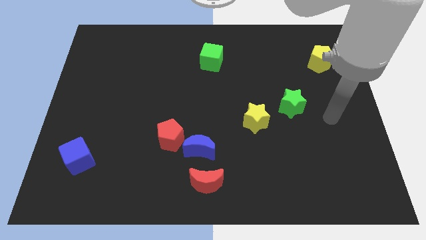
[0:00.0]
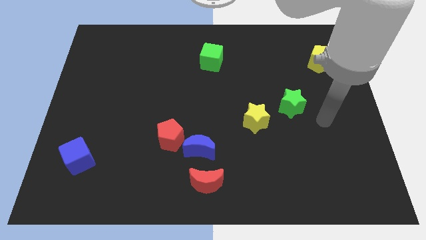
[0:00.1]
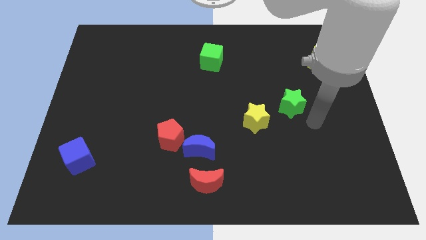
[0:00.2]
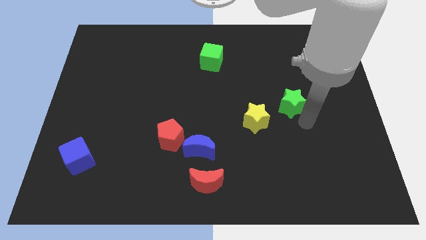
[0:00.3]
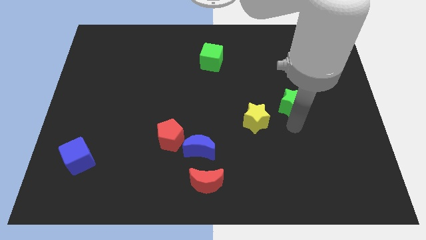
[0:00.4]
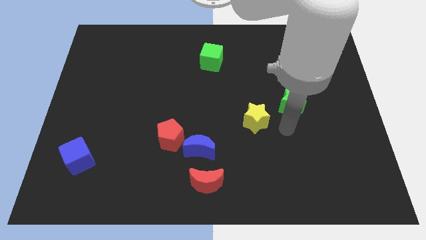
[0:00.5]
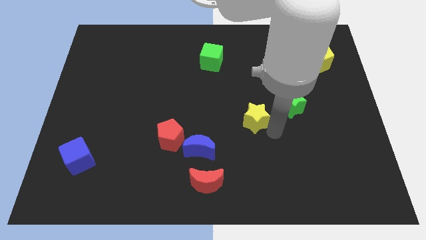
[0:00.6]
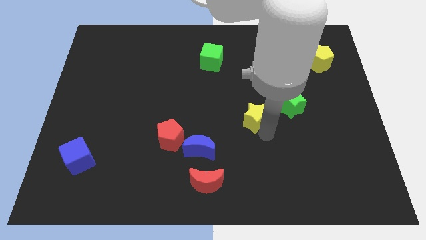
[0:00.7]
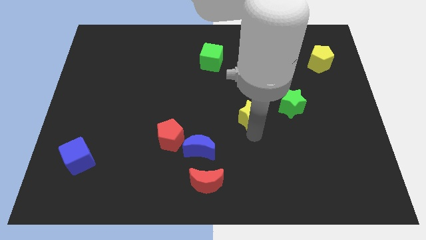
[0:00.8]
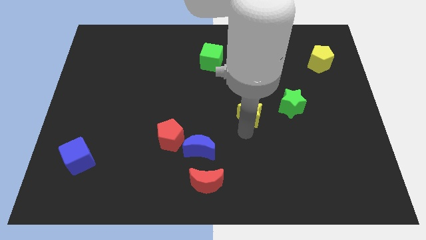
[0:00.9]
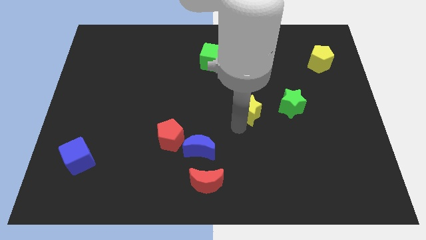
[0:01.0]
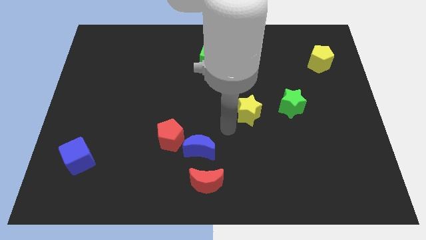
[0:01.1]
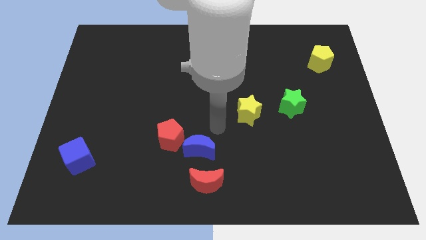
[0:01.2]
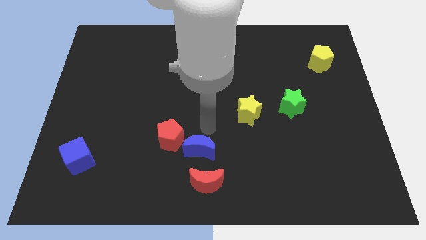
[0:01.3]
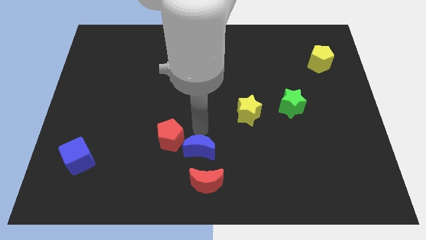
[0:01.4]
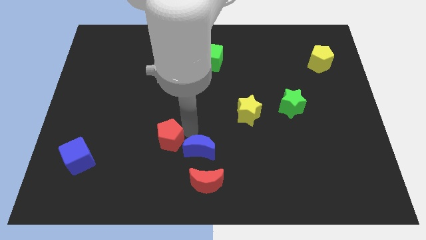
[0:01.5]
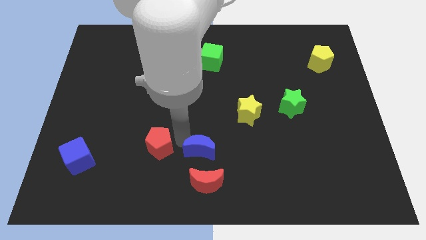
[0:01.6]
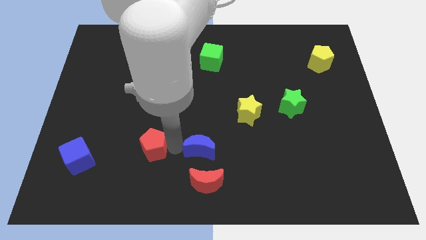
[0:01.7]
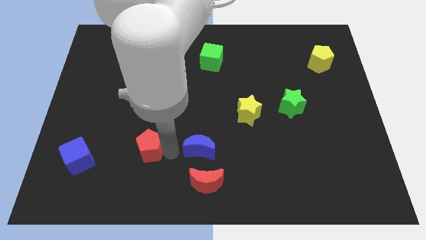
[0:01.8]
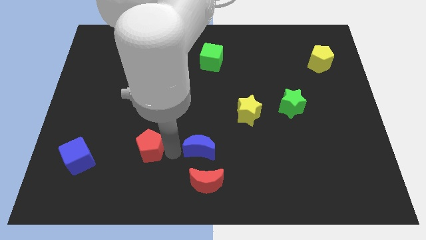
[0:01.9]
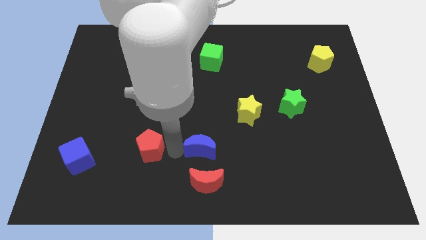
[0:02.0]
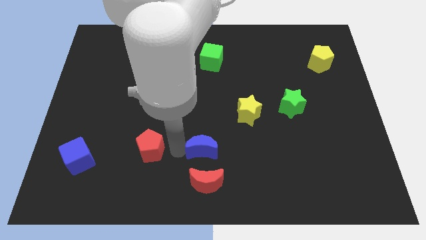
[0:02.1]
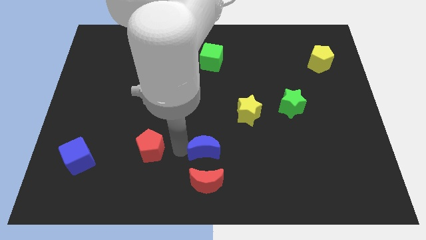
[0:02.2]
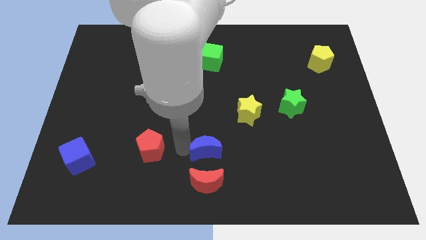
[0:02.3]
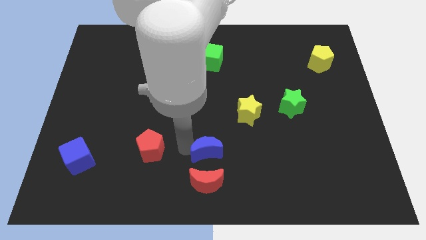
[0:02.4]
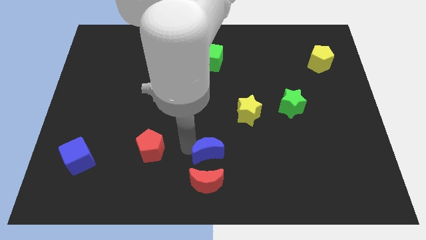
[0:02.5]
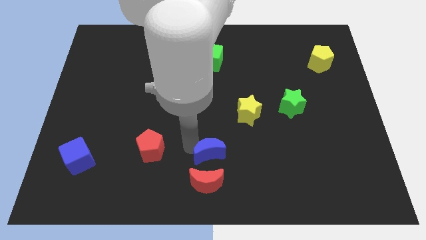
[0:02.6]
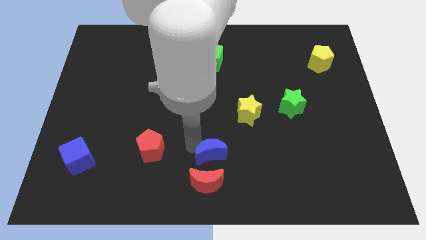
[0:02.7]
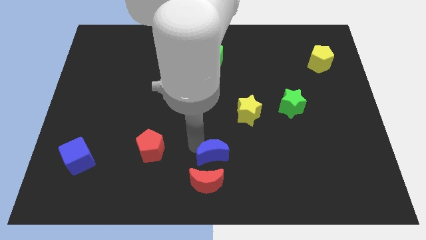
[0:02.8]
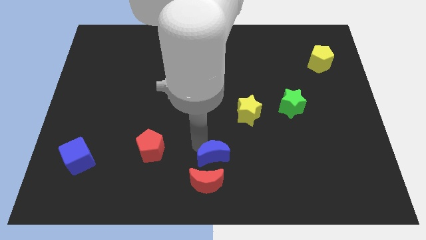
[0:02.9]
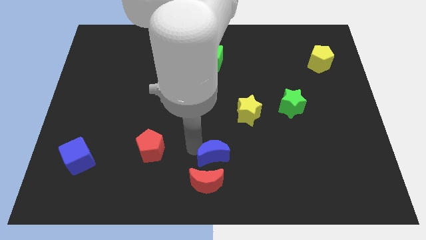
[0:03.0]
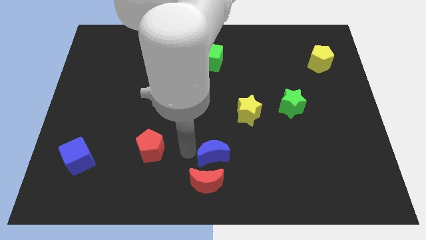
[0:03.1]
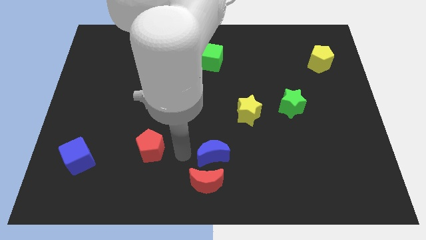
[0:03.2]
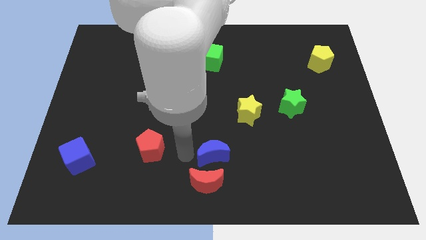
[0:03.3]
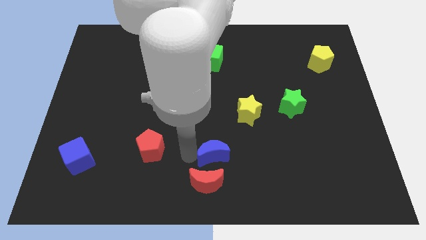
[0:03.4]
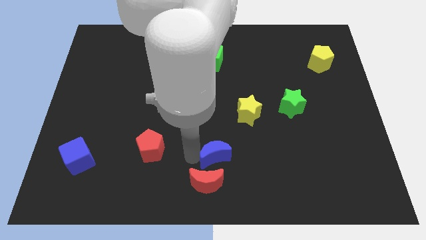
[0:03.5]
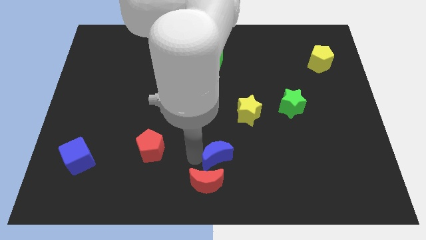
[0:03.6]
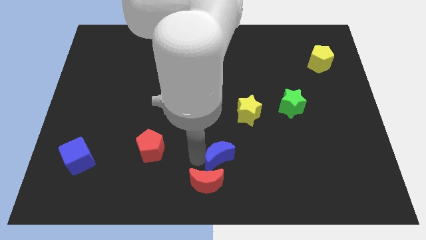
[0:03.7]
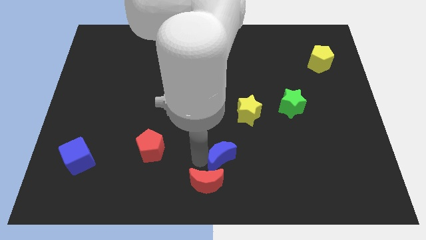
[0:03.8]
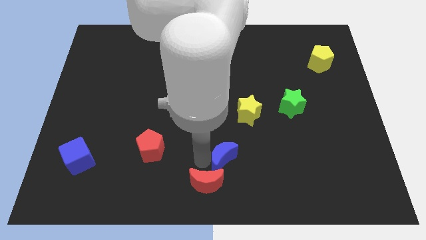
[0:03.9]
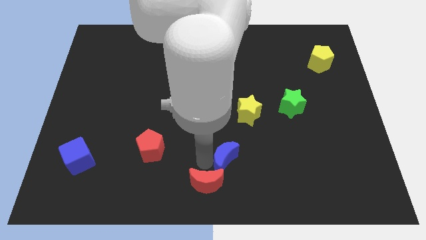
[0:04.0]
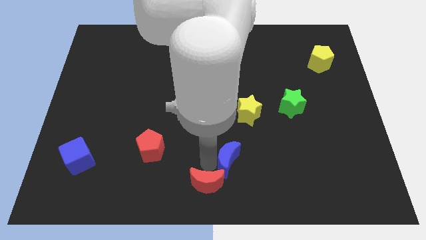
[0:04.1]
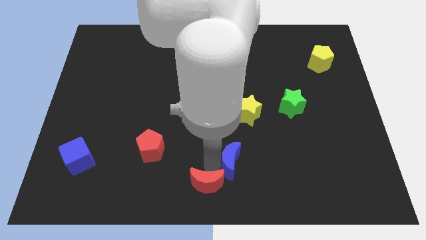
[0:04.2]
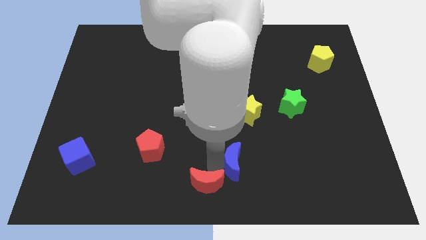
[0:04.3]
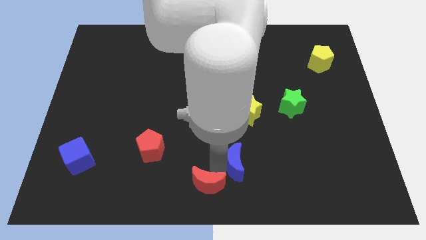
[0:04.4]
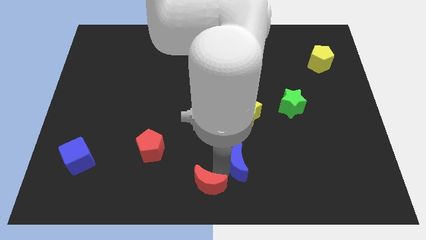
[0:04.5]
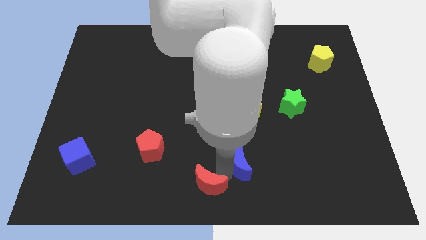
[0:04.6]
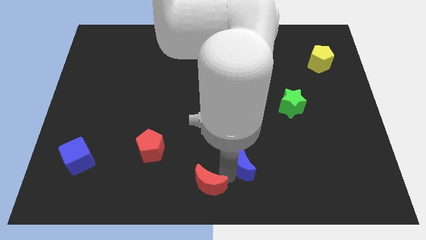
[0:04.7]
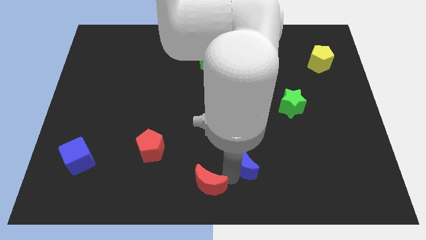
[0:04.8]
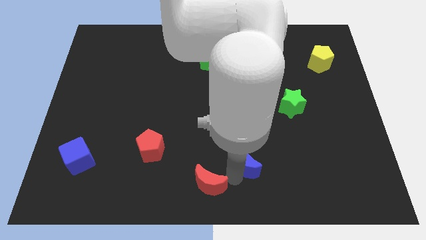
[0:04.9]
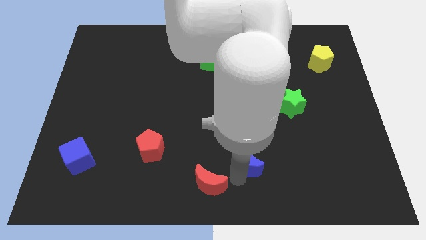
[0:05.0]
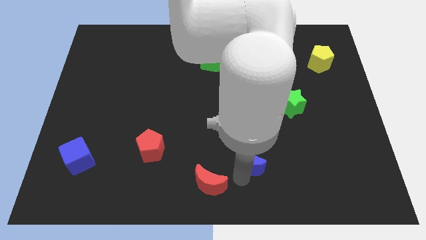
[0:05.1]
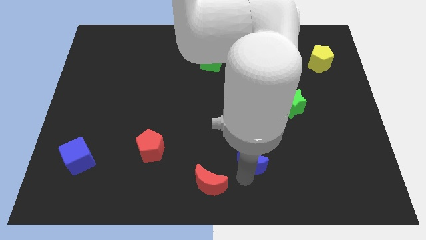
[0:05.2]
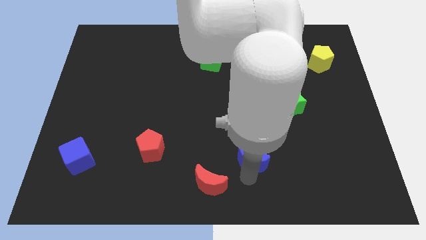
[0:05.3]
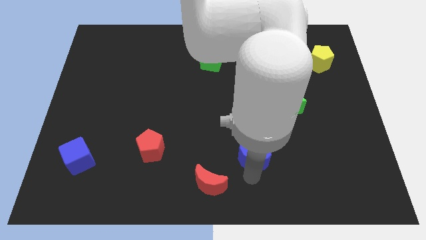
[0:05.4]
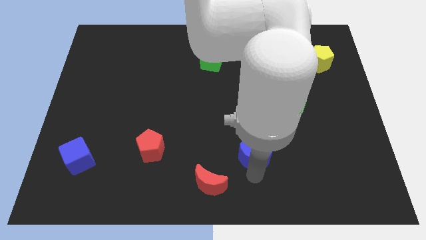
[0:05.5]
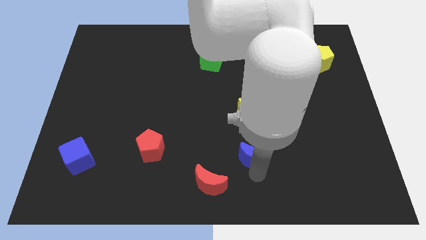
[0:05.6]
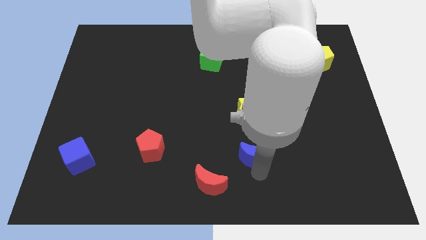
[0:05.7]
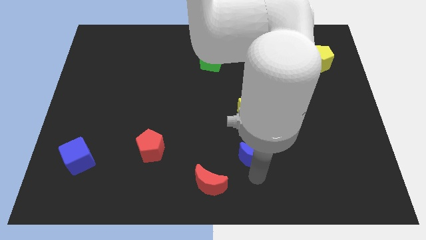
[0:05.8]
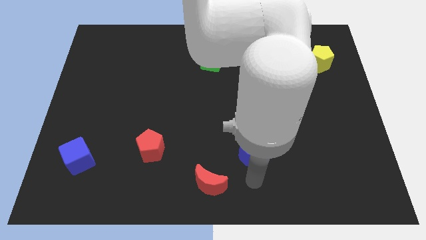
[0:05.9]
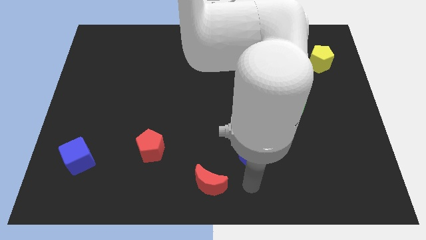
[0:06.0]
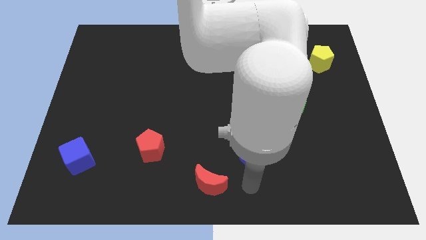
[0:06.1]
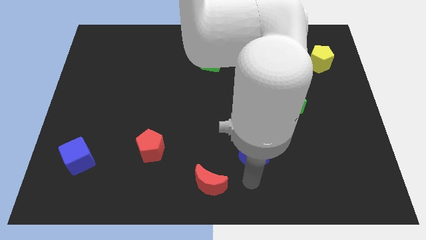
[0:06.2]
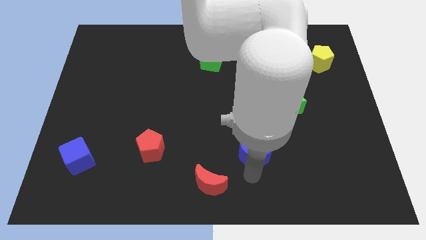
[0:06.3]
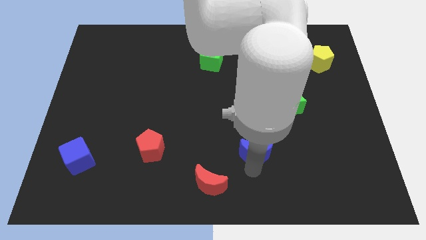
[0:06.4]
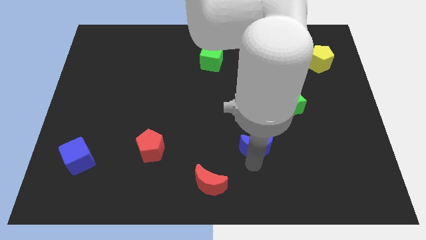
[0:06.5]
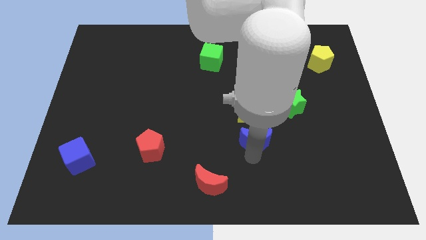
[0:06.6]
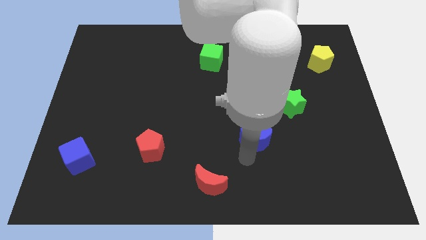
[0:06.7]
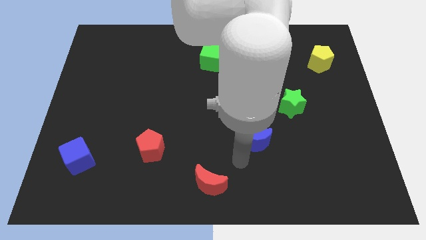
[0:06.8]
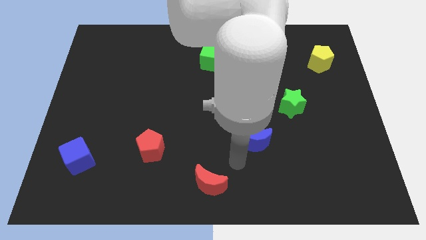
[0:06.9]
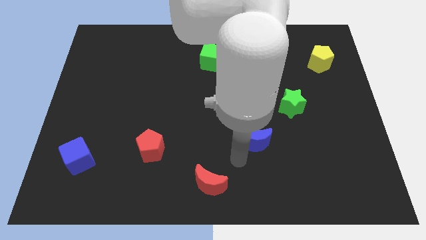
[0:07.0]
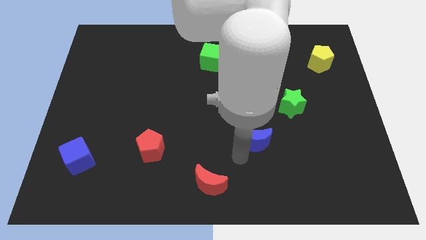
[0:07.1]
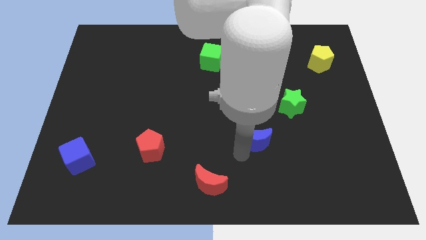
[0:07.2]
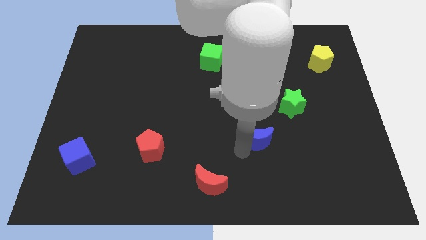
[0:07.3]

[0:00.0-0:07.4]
put the blue moon to the bottom left side of the green star

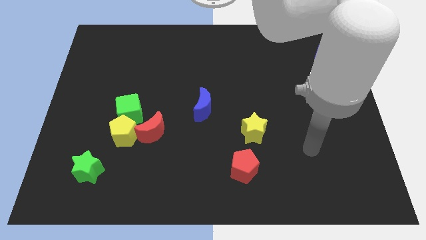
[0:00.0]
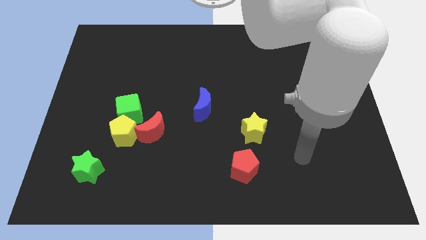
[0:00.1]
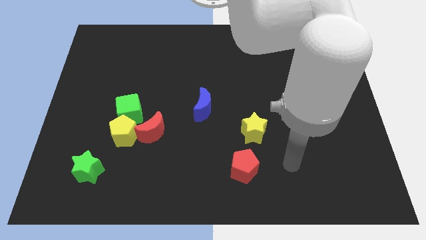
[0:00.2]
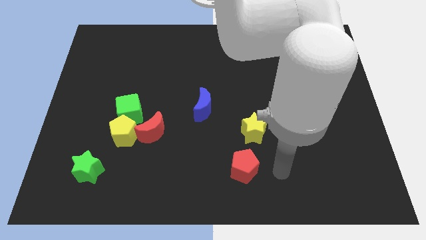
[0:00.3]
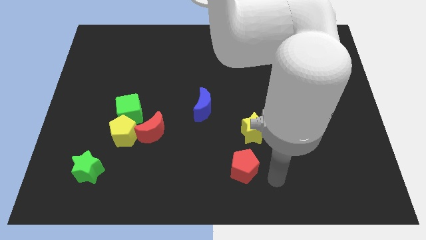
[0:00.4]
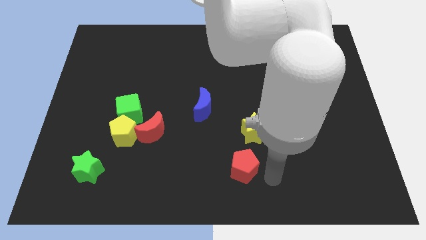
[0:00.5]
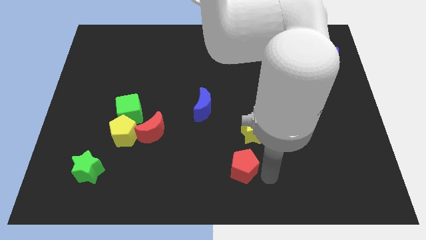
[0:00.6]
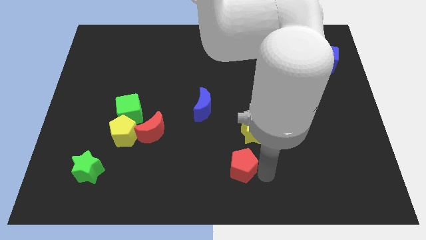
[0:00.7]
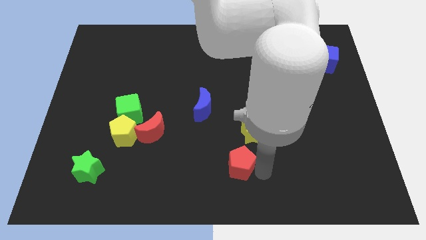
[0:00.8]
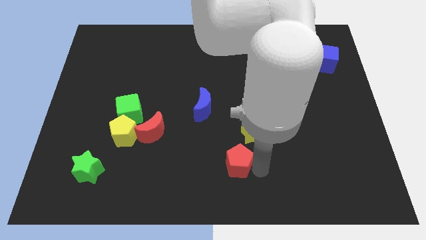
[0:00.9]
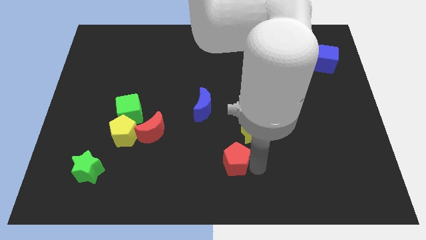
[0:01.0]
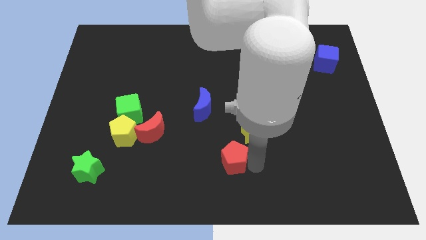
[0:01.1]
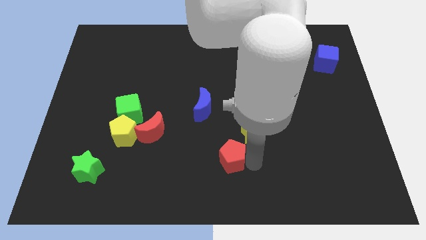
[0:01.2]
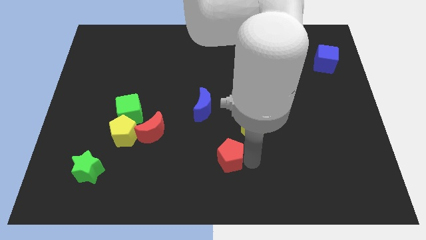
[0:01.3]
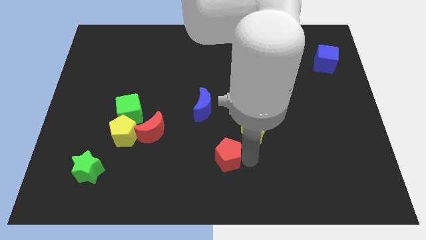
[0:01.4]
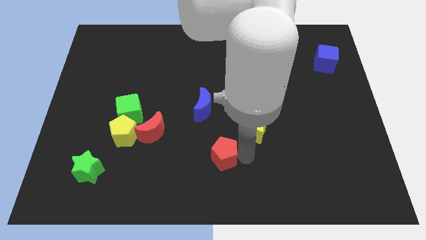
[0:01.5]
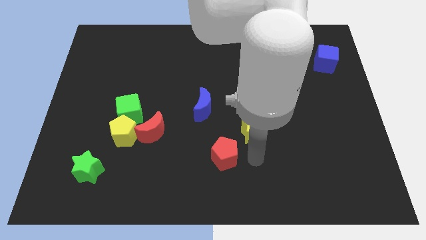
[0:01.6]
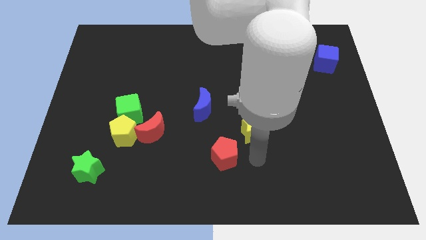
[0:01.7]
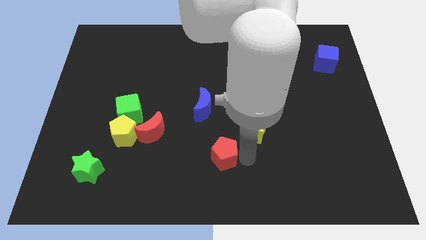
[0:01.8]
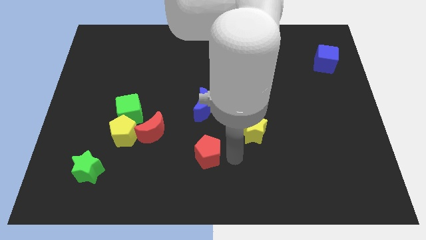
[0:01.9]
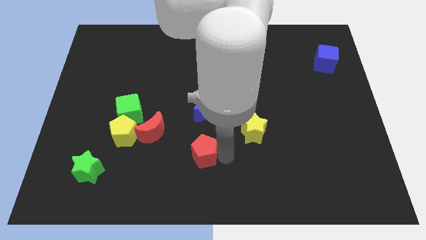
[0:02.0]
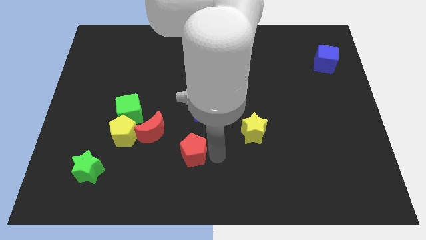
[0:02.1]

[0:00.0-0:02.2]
slide the red pentagon to the bottom right of the red moon
